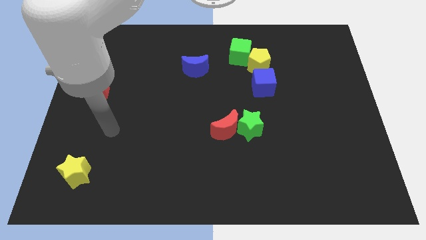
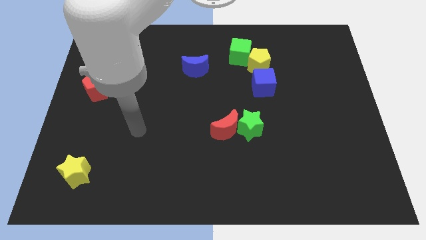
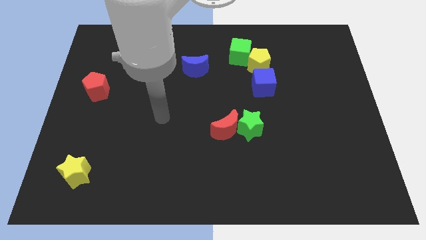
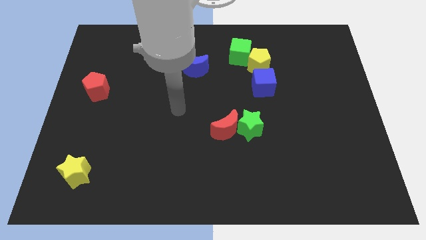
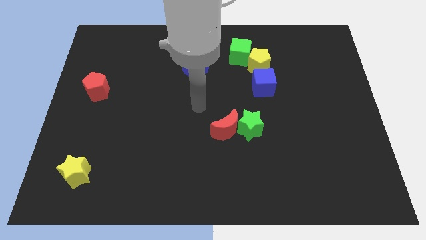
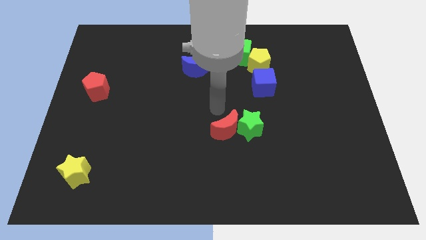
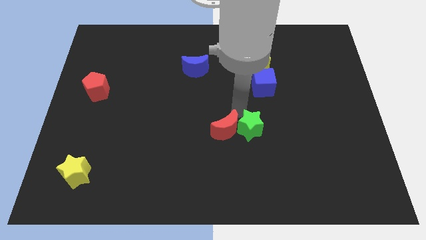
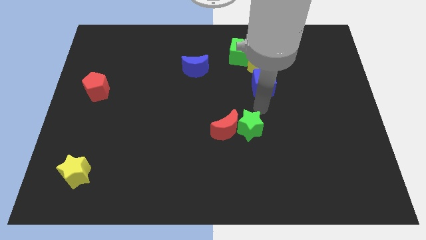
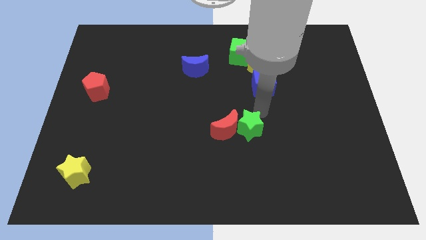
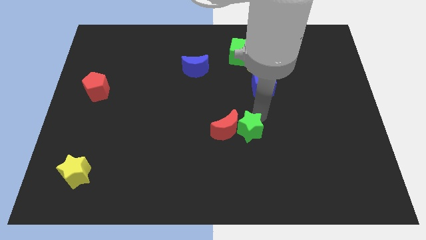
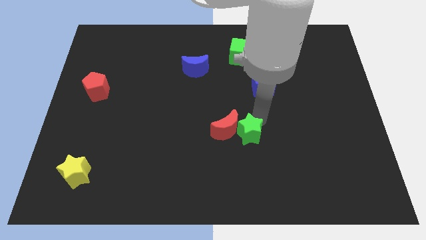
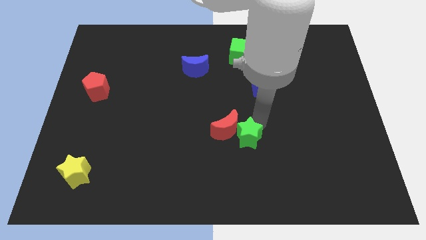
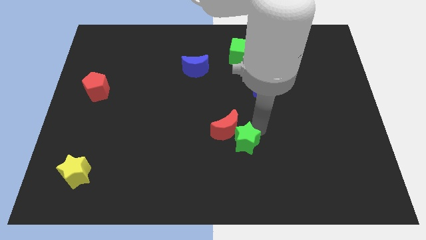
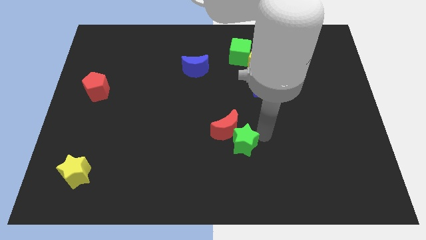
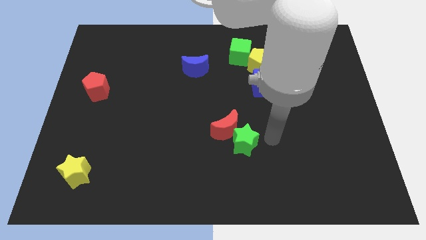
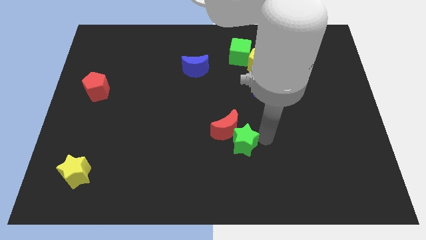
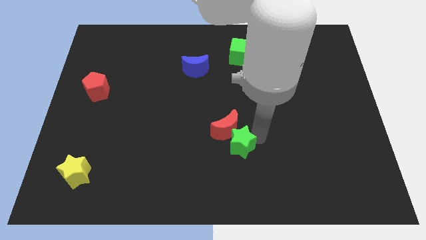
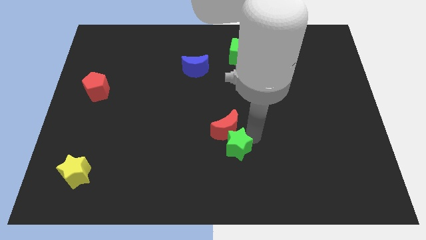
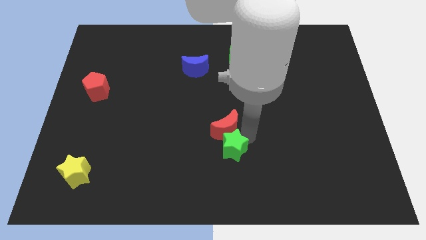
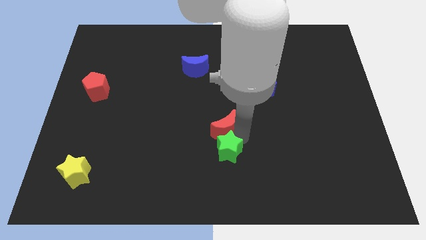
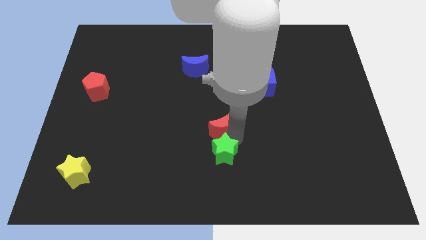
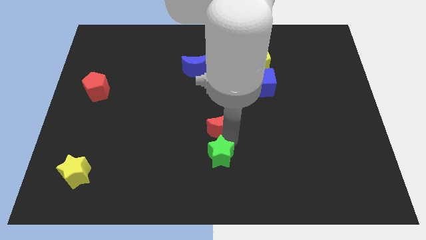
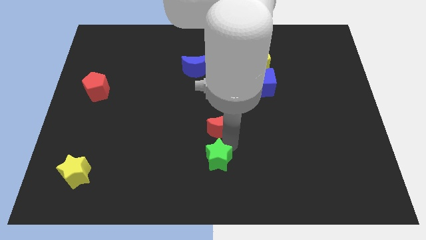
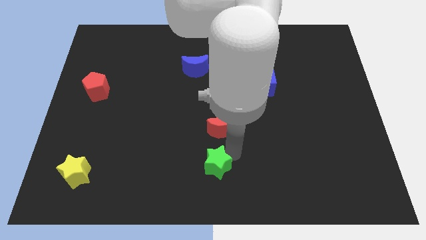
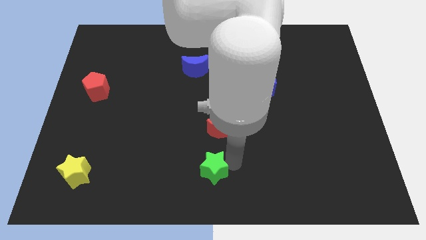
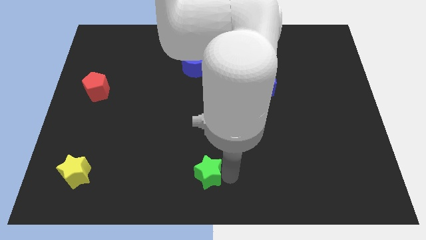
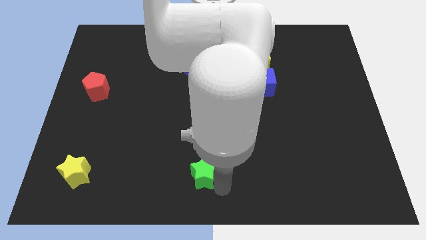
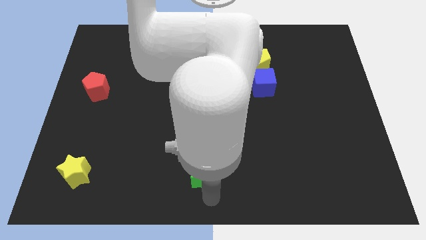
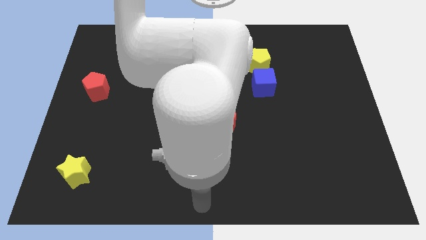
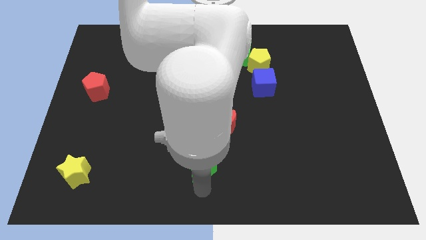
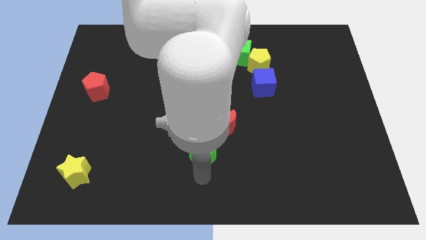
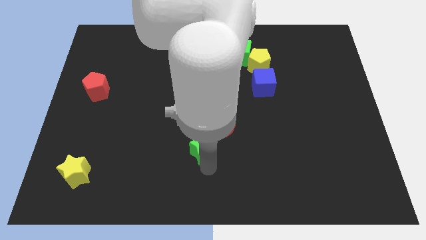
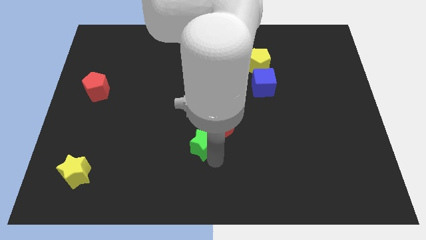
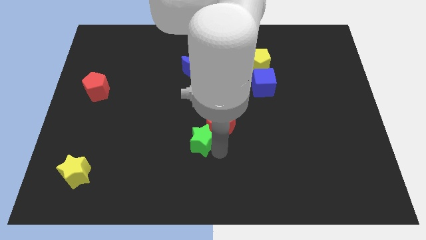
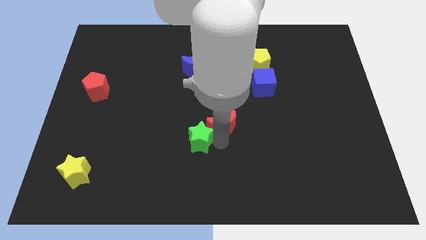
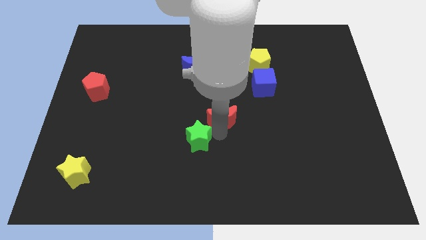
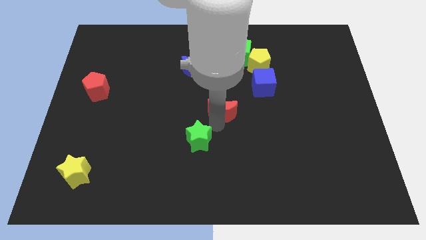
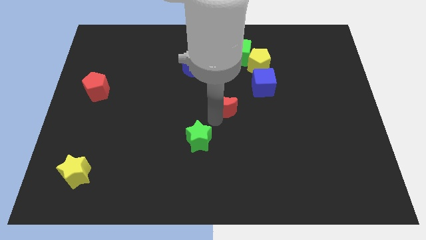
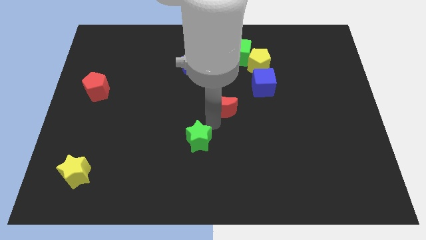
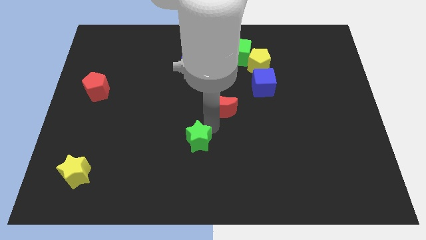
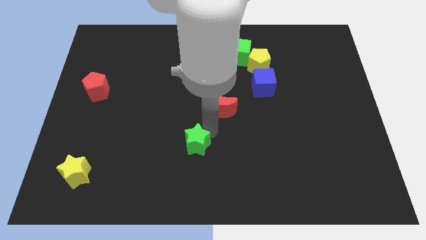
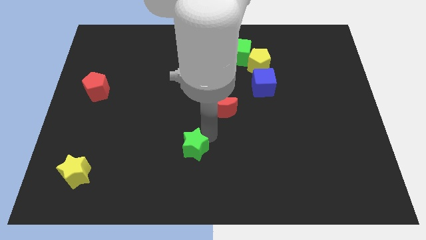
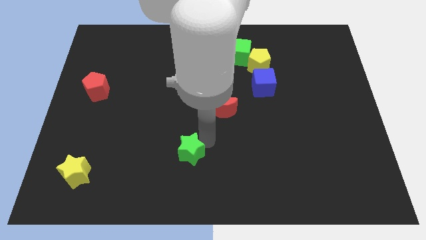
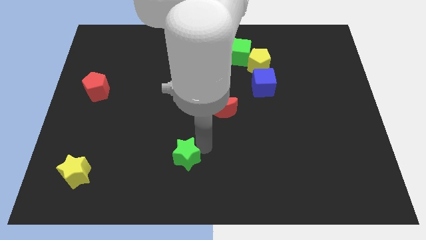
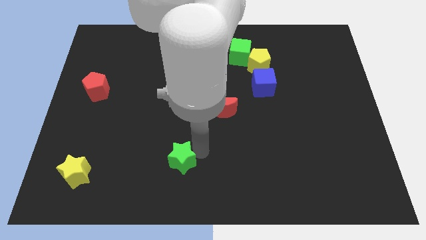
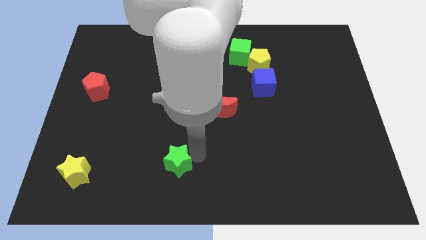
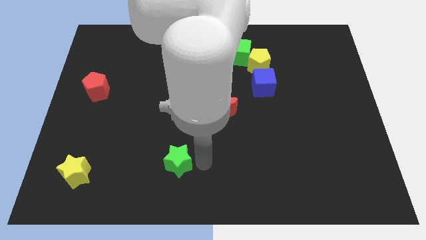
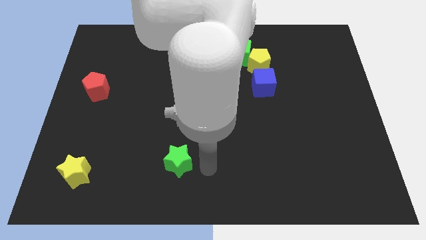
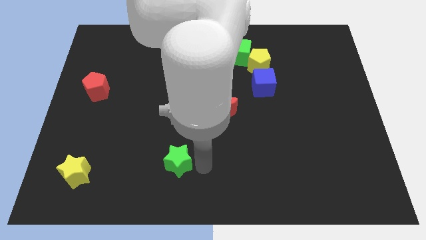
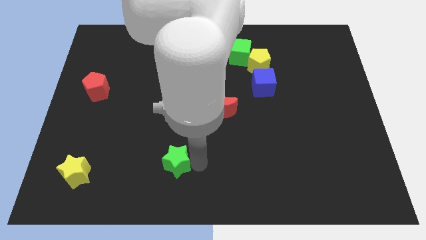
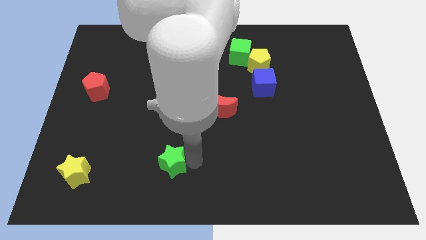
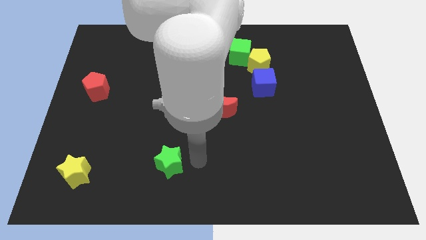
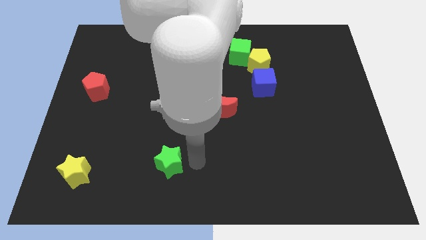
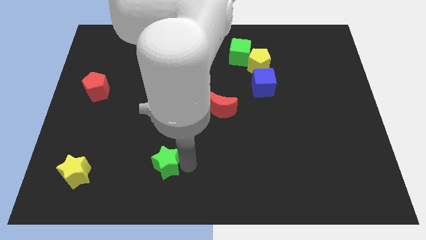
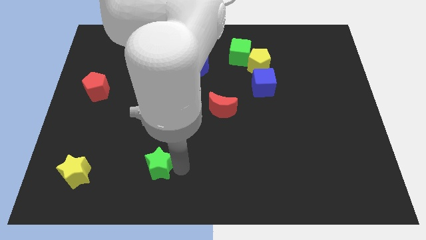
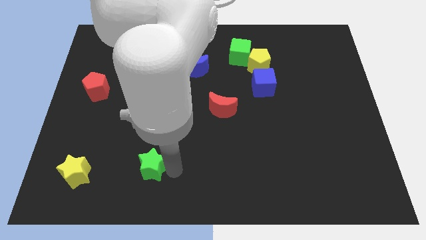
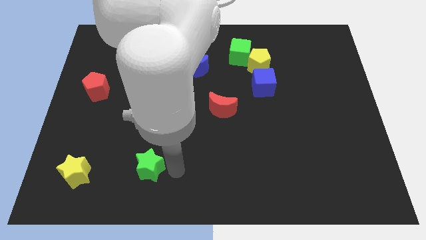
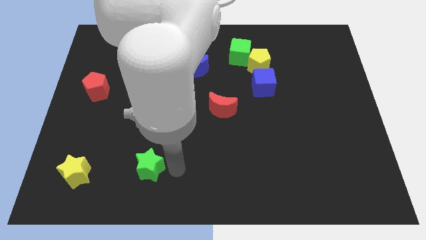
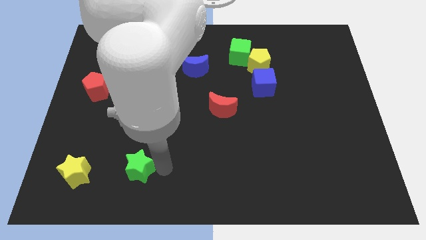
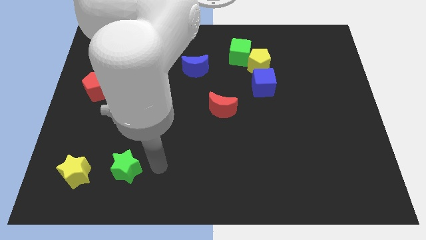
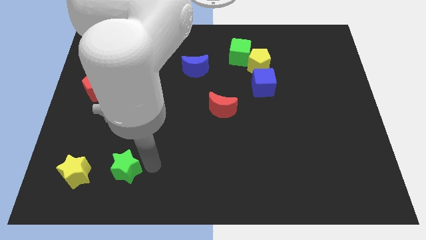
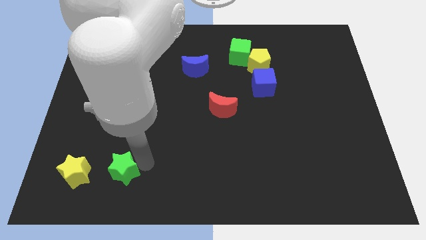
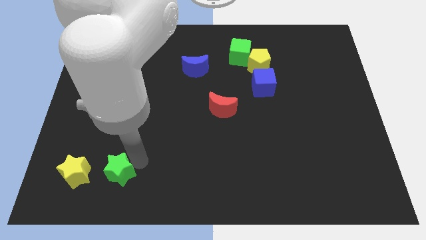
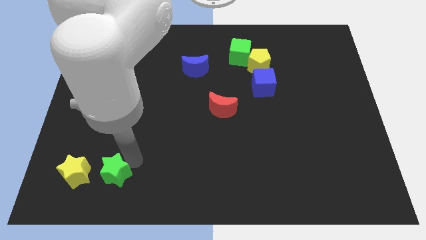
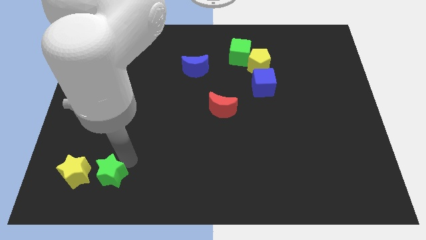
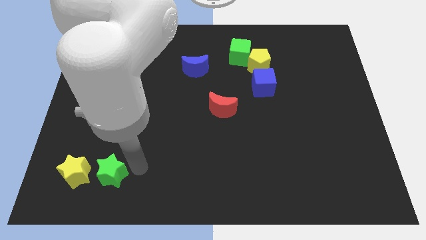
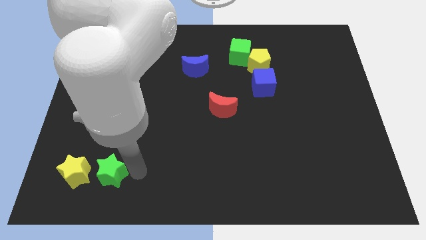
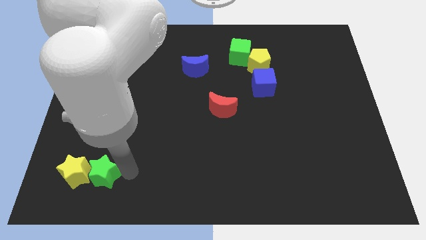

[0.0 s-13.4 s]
slide the green star close to the yellow star

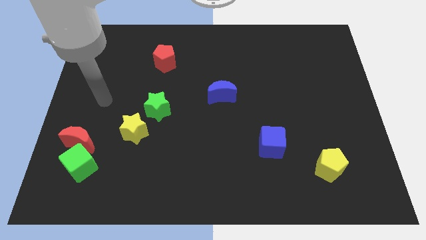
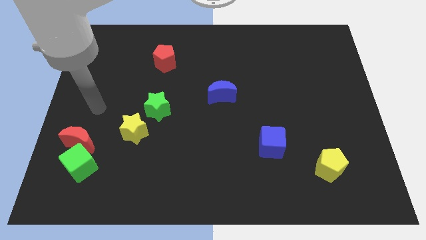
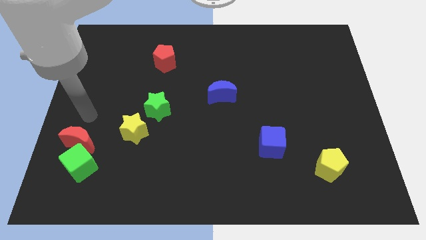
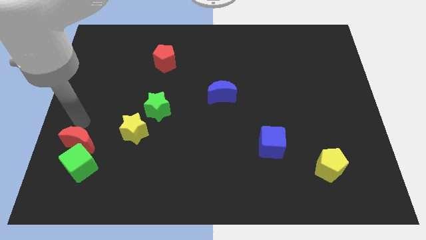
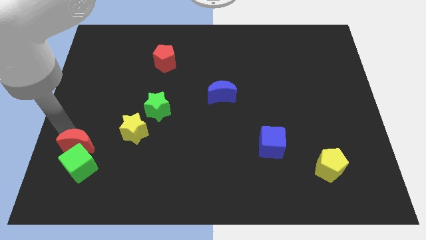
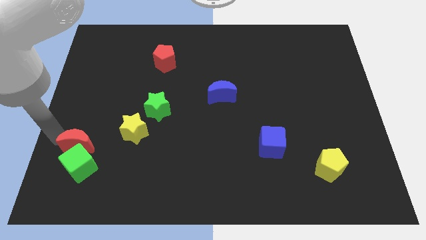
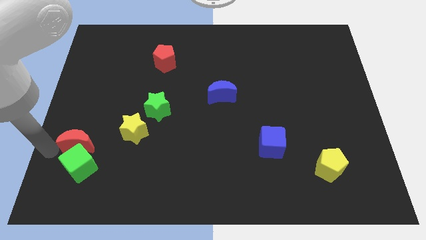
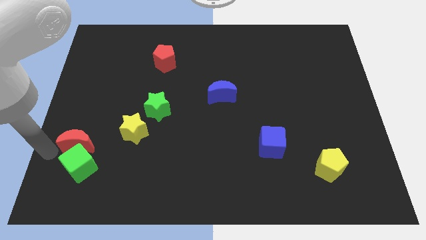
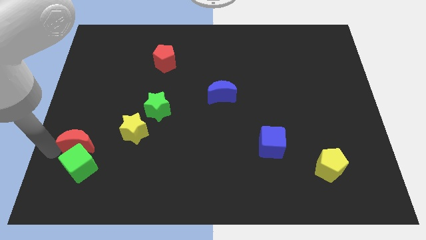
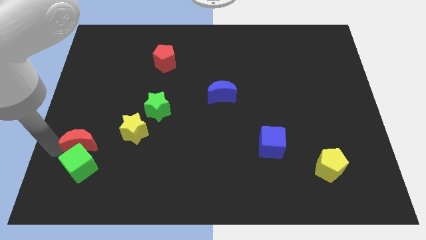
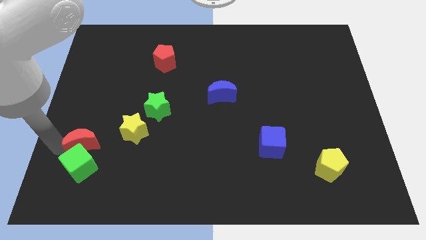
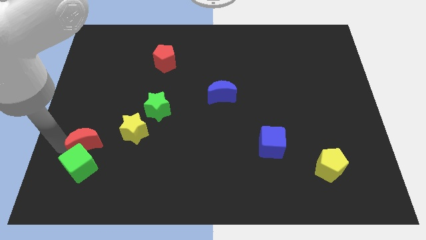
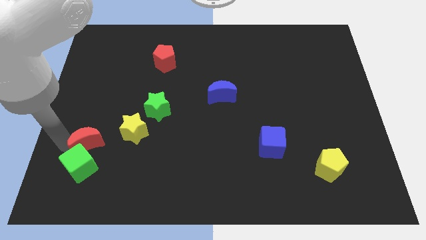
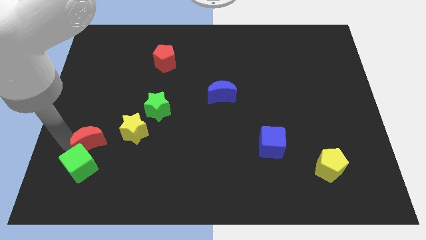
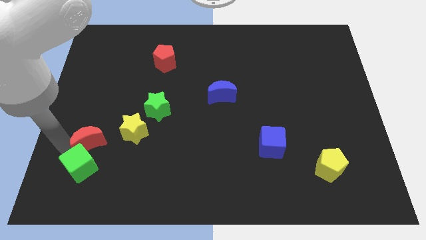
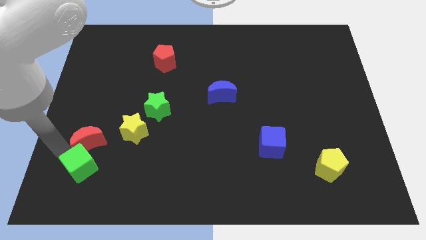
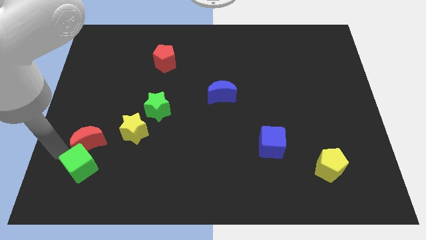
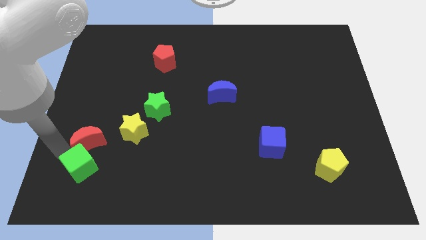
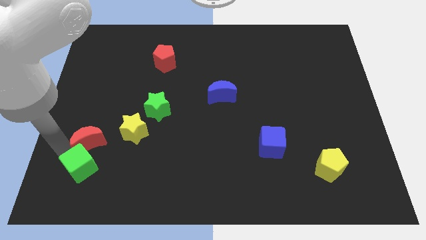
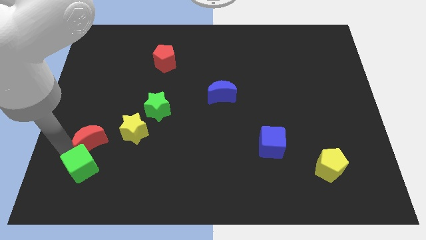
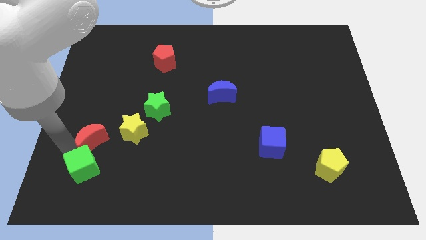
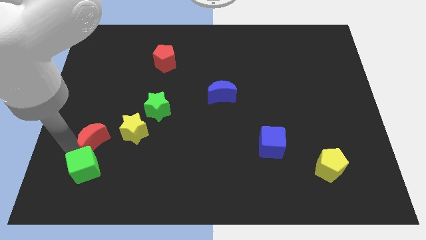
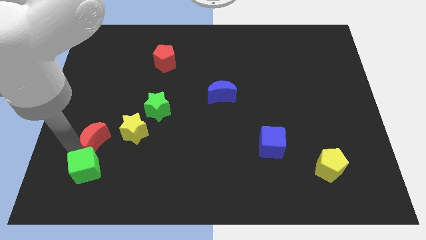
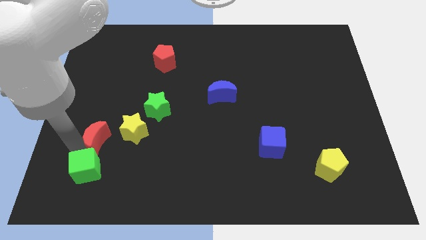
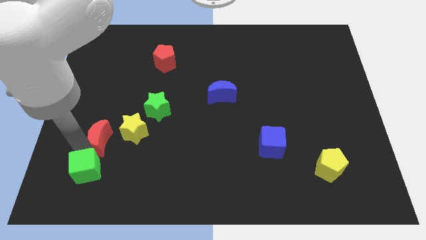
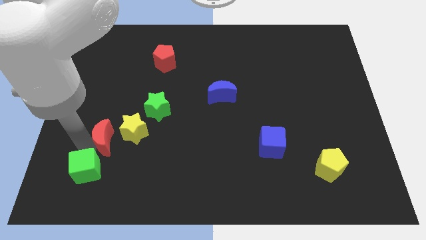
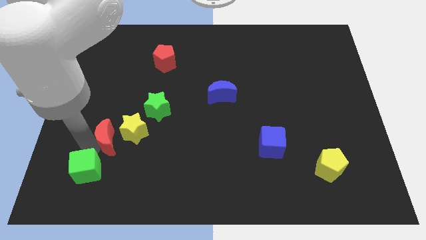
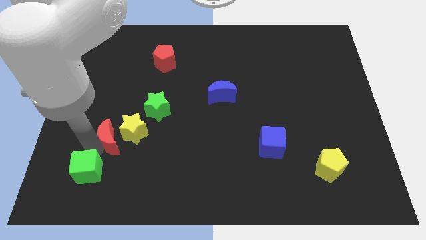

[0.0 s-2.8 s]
move the red moon close to the yellow star
